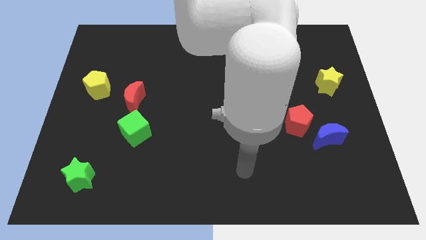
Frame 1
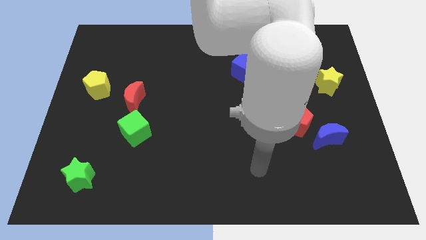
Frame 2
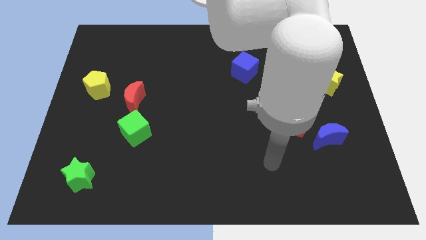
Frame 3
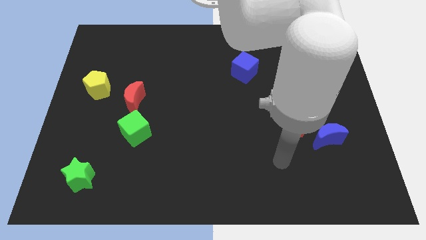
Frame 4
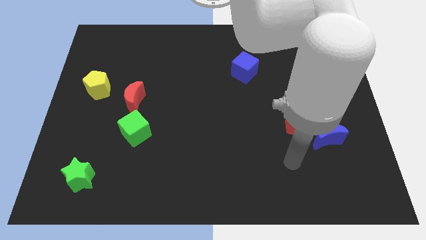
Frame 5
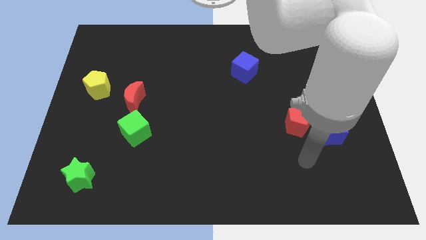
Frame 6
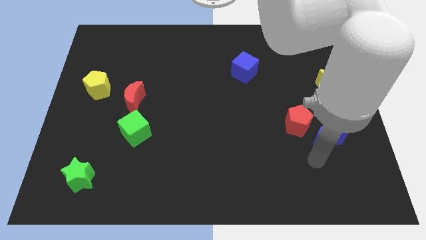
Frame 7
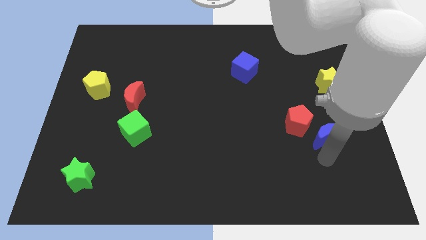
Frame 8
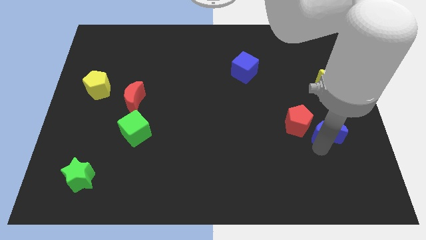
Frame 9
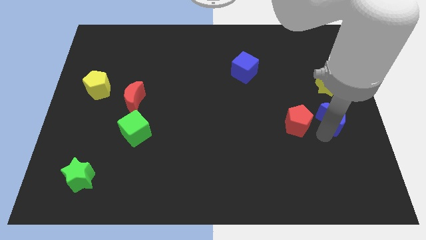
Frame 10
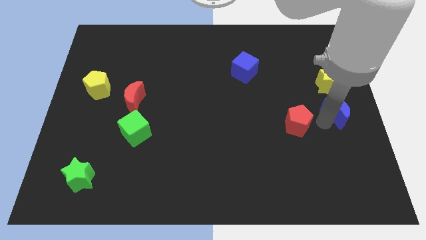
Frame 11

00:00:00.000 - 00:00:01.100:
move the red pentagon away from the blue moon

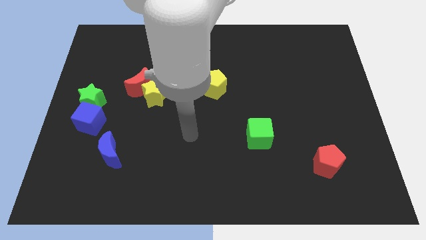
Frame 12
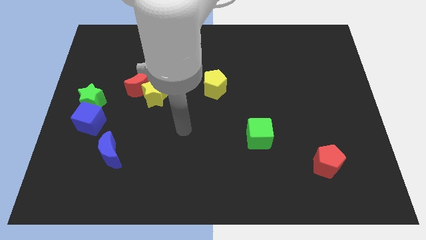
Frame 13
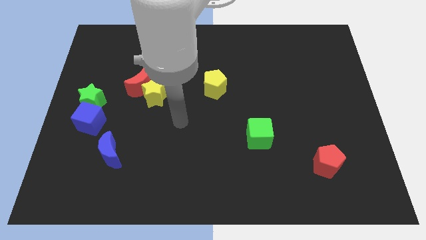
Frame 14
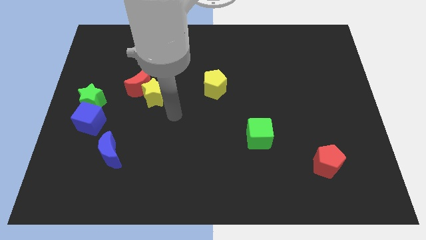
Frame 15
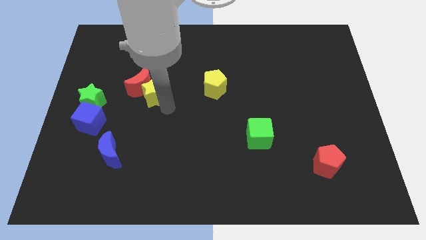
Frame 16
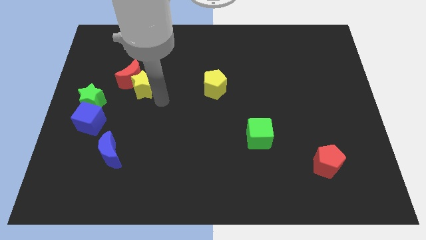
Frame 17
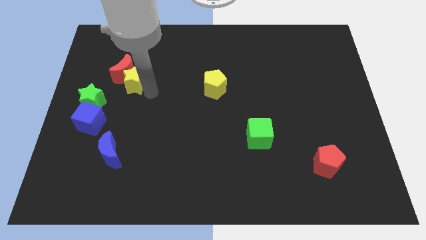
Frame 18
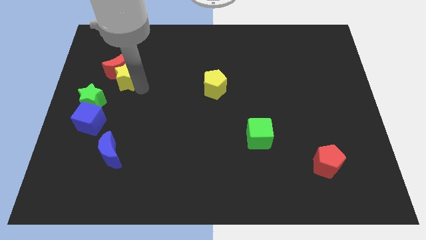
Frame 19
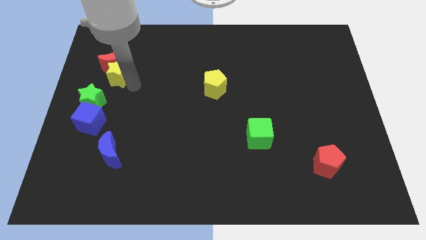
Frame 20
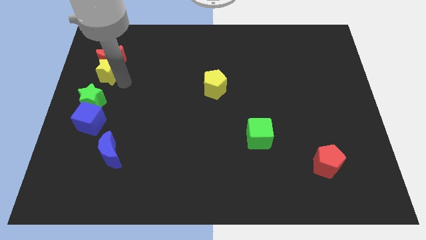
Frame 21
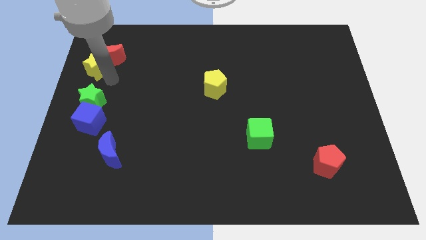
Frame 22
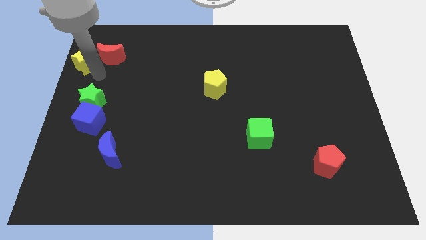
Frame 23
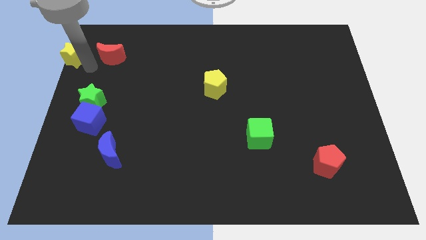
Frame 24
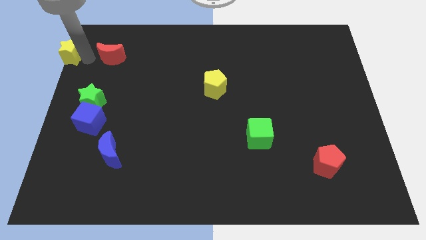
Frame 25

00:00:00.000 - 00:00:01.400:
separate the red moon from the yellow star

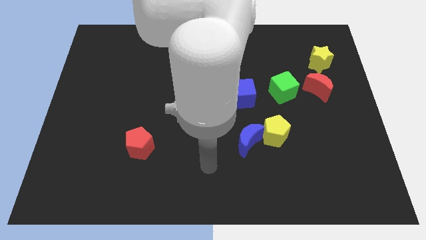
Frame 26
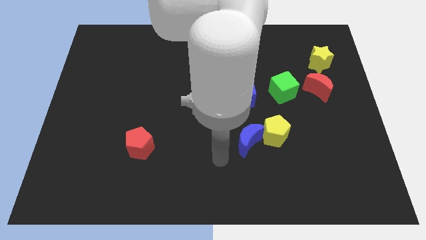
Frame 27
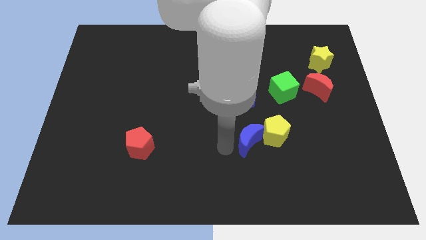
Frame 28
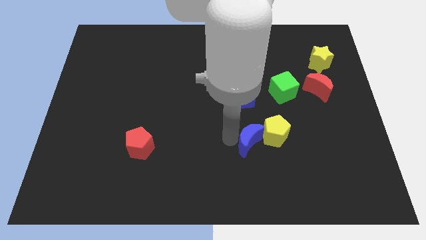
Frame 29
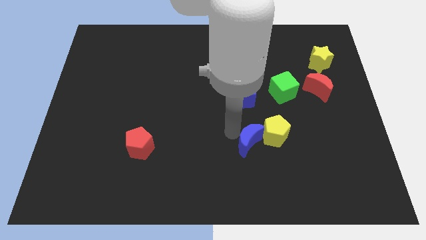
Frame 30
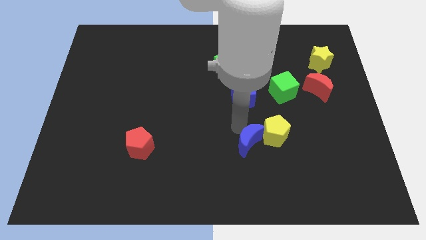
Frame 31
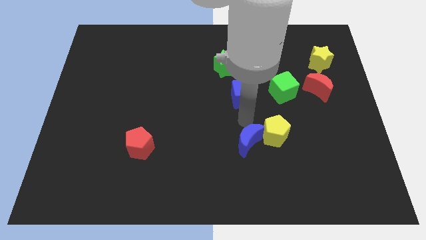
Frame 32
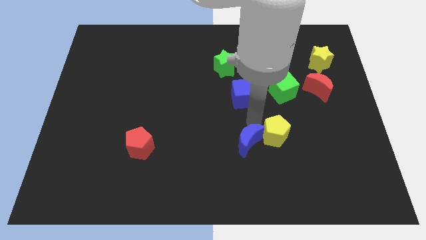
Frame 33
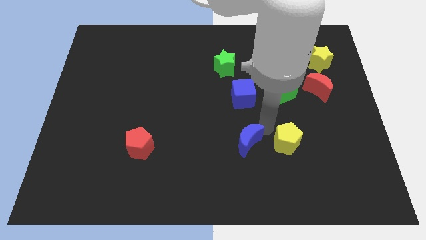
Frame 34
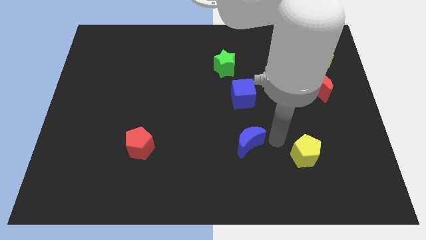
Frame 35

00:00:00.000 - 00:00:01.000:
move the blue moon away from the yellow pentagon

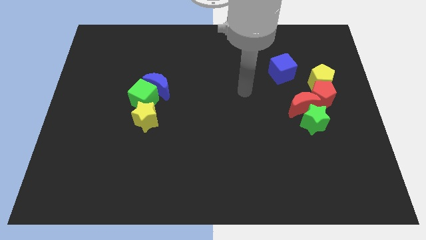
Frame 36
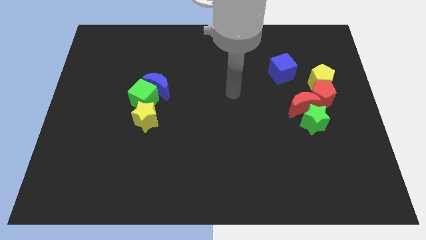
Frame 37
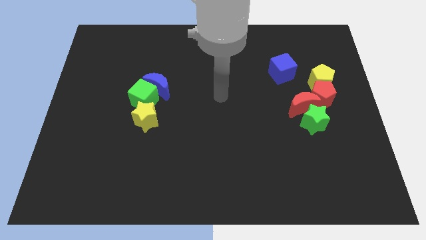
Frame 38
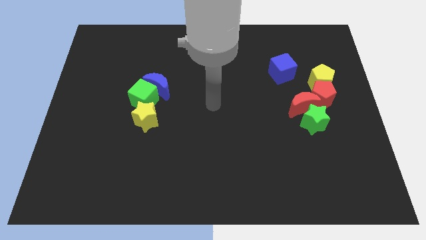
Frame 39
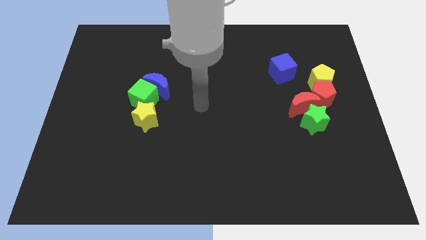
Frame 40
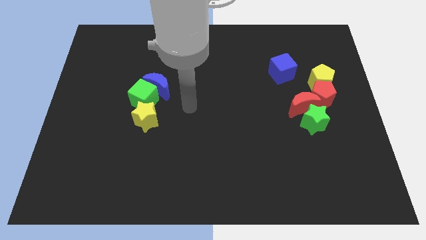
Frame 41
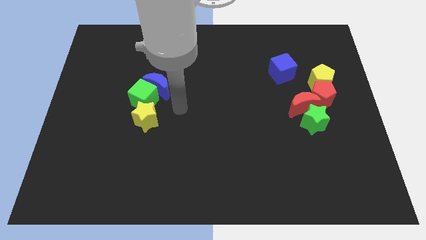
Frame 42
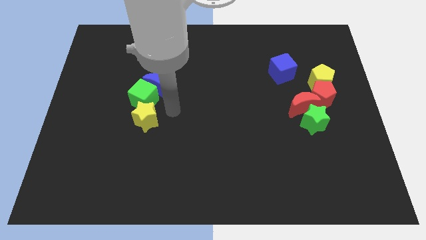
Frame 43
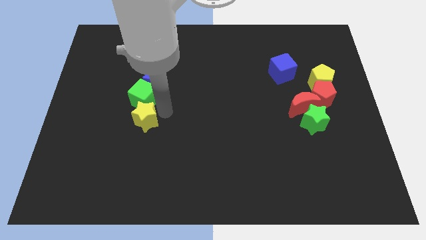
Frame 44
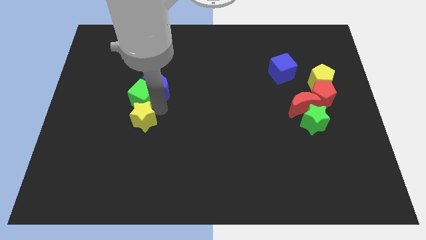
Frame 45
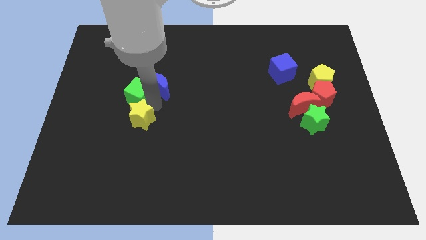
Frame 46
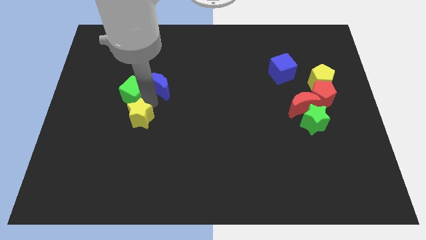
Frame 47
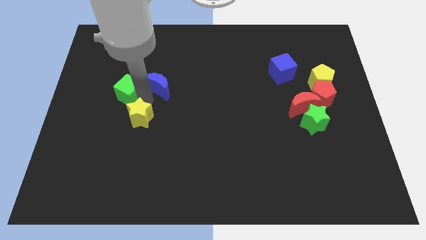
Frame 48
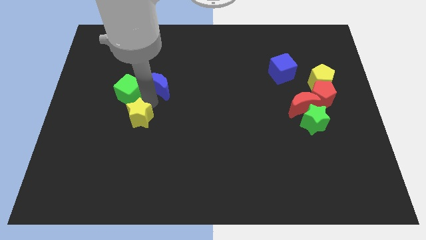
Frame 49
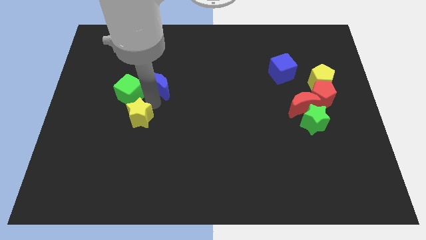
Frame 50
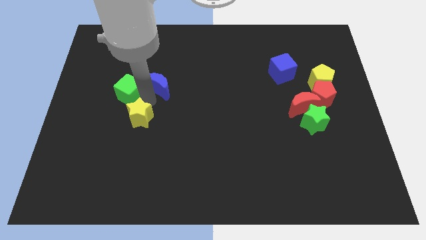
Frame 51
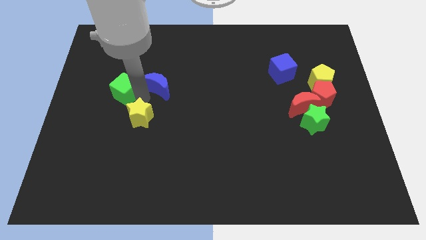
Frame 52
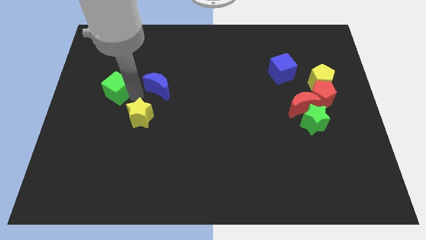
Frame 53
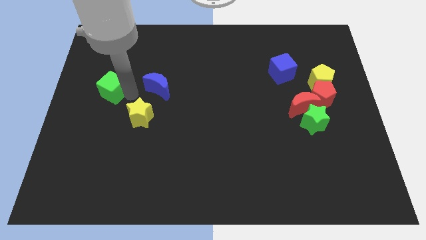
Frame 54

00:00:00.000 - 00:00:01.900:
move the green cube away from the blue moon and yellow star

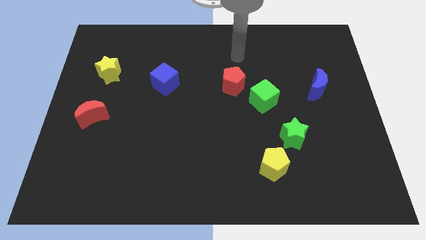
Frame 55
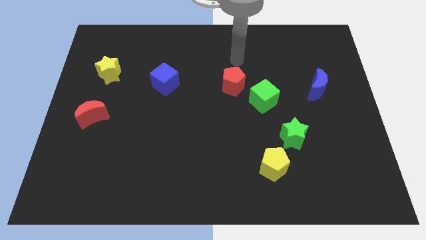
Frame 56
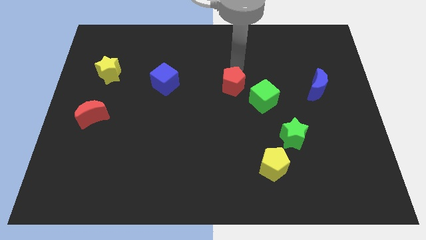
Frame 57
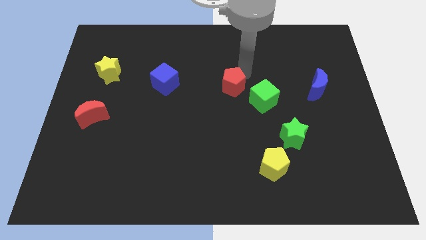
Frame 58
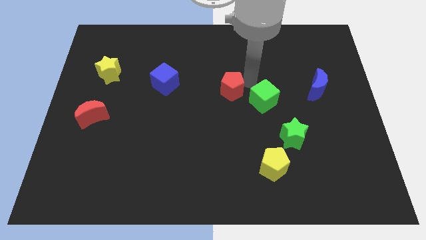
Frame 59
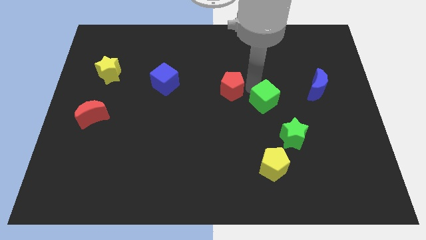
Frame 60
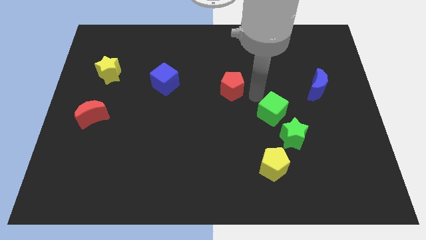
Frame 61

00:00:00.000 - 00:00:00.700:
pull the red pentagon apart from the green cube

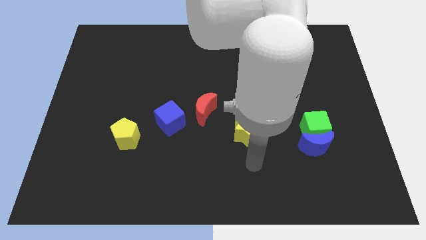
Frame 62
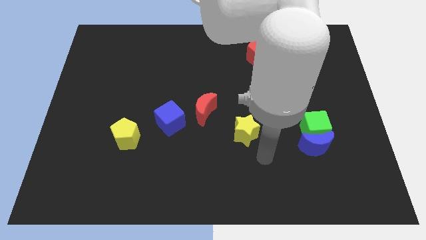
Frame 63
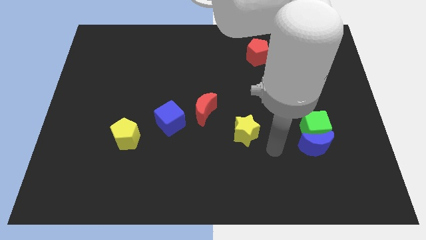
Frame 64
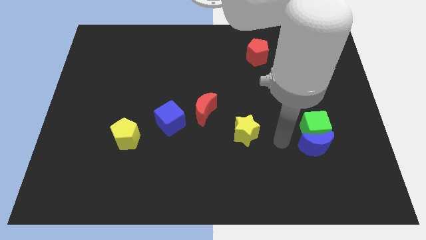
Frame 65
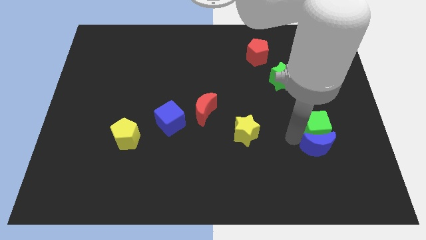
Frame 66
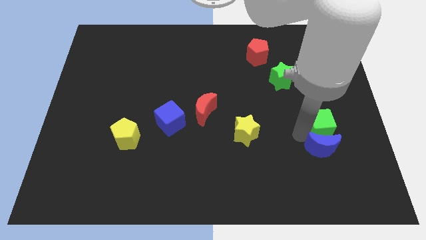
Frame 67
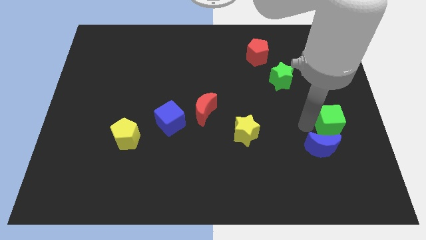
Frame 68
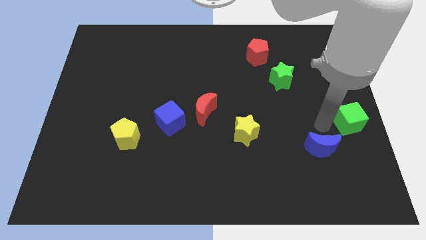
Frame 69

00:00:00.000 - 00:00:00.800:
separate the blue moon from the green cube

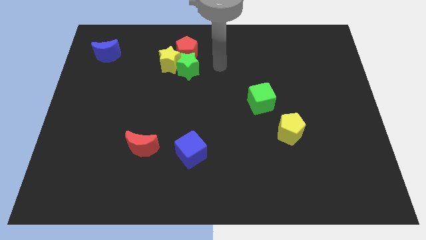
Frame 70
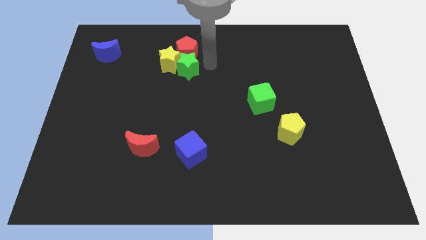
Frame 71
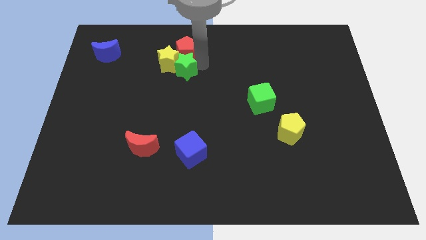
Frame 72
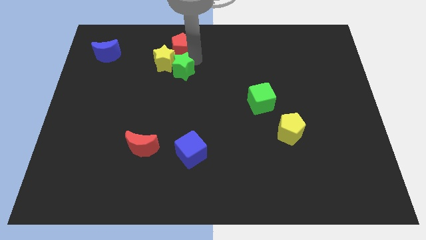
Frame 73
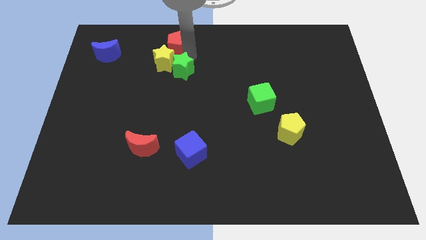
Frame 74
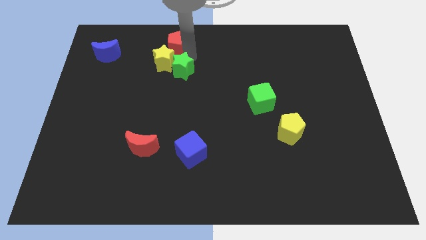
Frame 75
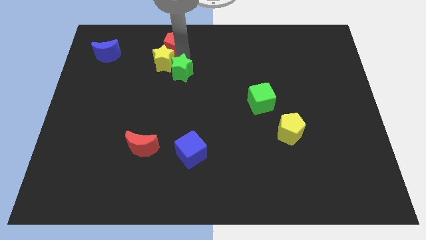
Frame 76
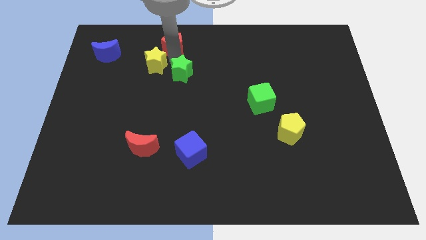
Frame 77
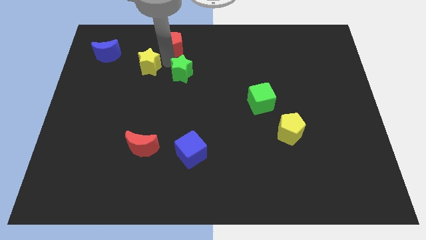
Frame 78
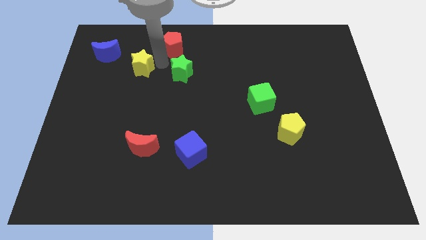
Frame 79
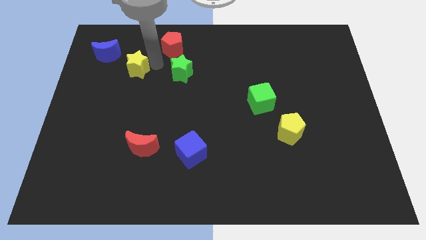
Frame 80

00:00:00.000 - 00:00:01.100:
move the yellow star away from the green star and red pentagon

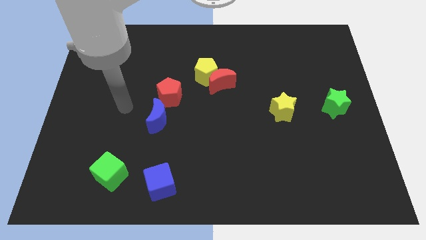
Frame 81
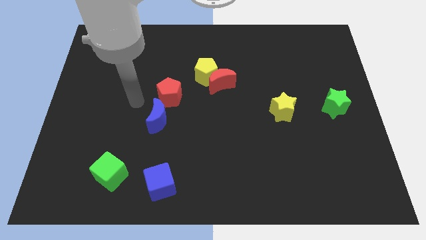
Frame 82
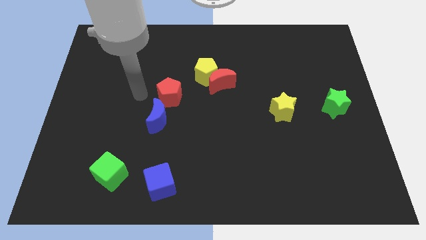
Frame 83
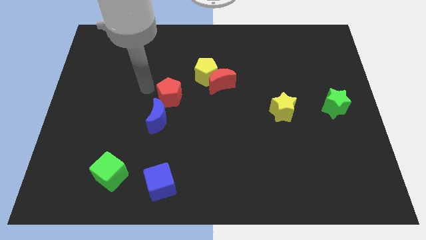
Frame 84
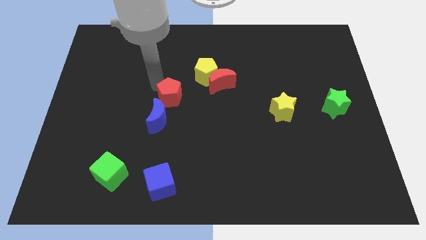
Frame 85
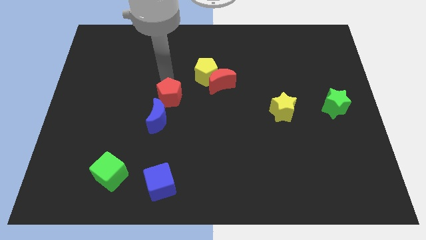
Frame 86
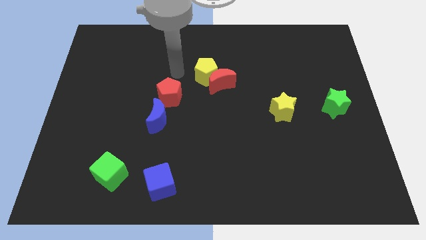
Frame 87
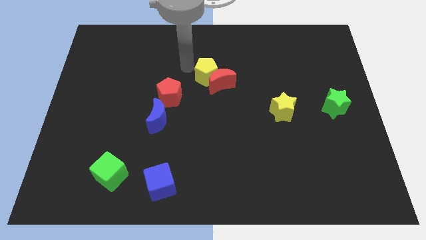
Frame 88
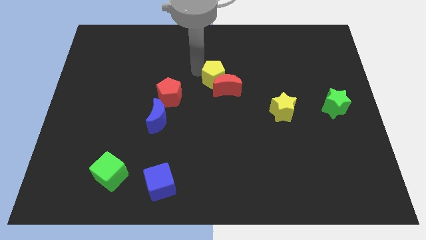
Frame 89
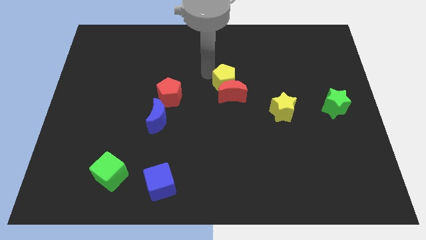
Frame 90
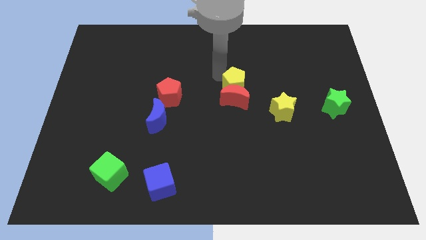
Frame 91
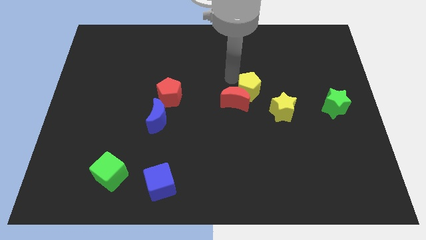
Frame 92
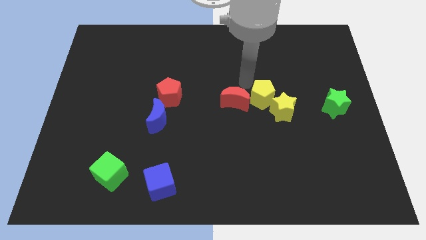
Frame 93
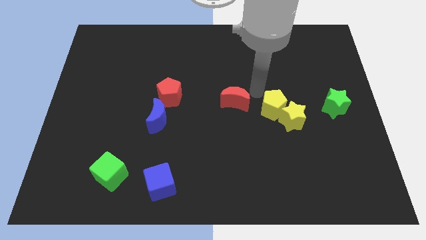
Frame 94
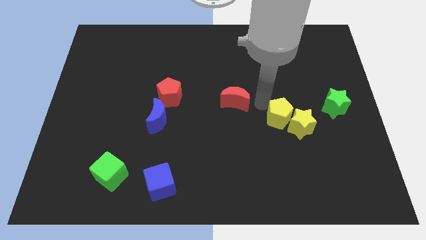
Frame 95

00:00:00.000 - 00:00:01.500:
separate the red moon from the yellow pentagon
